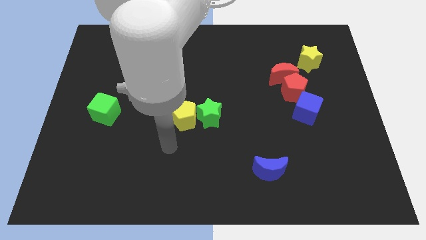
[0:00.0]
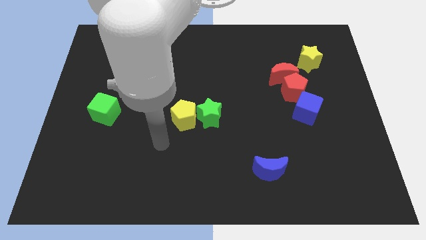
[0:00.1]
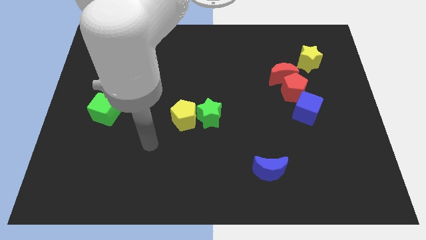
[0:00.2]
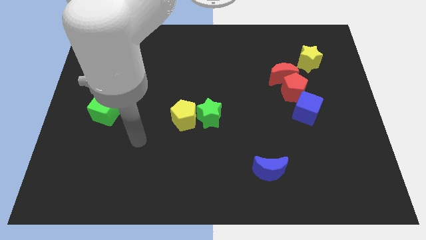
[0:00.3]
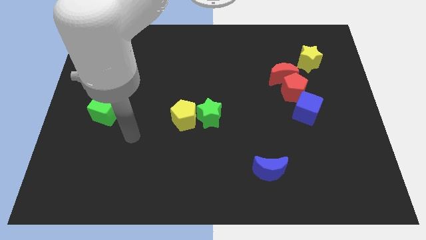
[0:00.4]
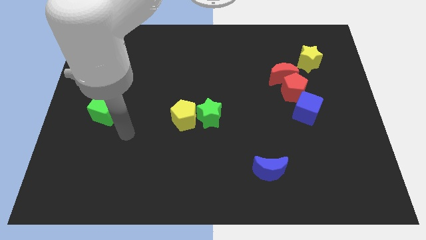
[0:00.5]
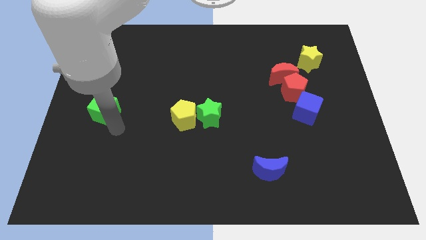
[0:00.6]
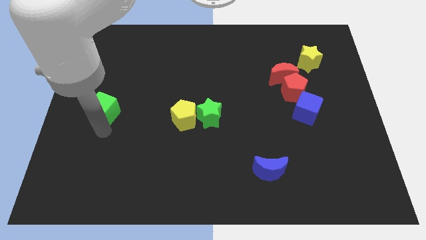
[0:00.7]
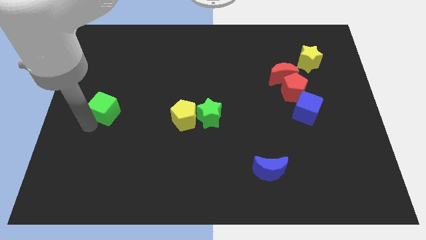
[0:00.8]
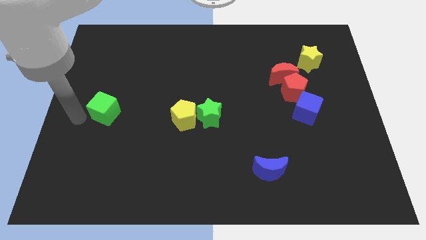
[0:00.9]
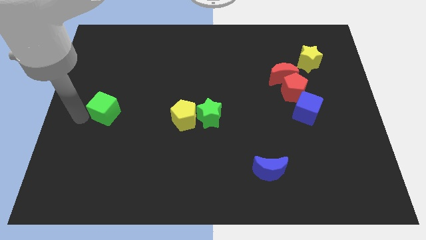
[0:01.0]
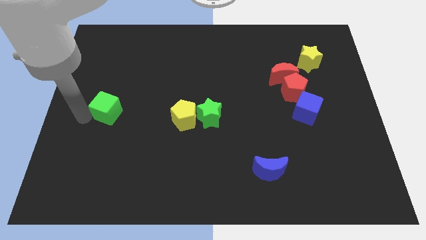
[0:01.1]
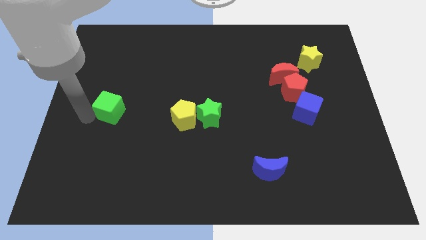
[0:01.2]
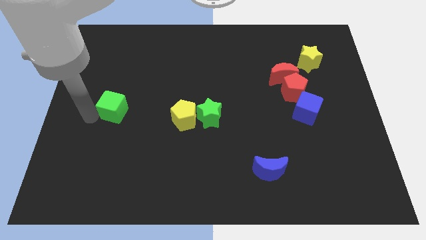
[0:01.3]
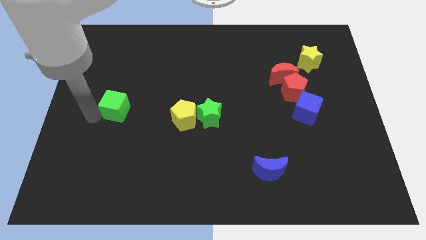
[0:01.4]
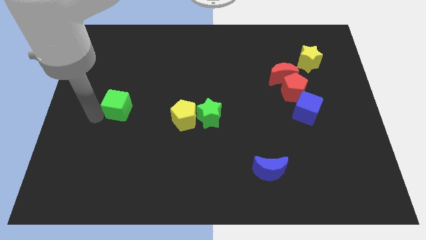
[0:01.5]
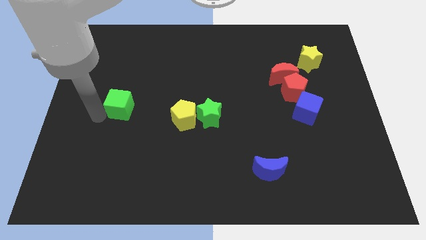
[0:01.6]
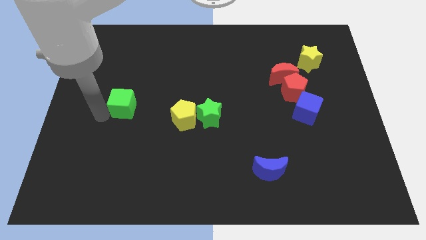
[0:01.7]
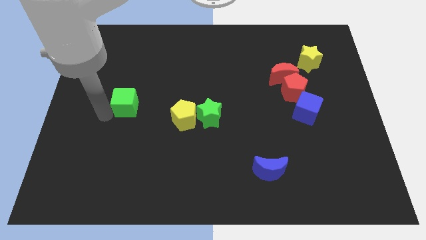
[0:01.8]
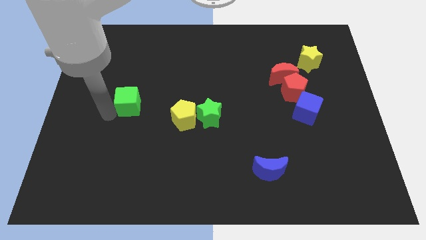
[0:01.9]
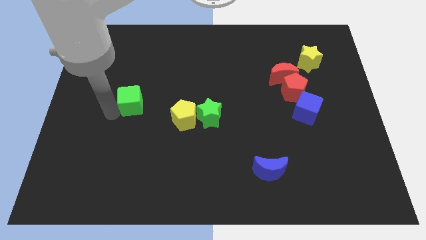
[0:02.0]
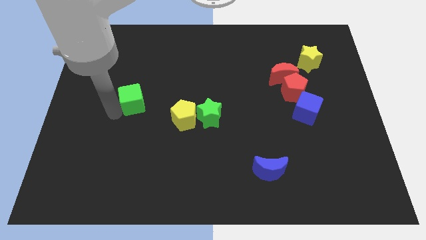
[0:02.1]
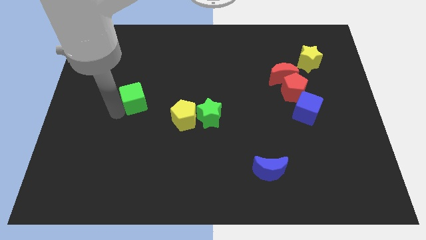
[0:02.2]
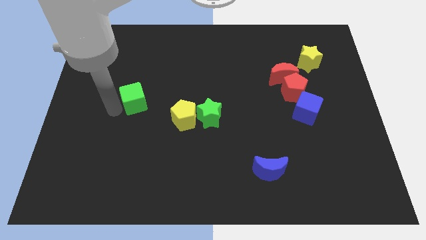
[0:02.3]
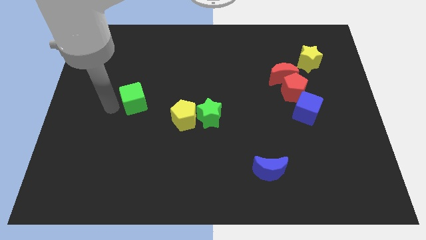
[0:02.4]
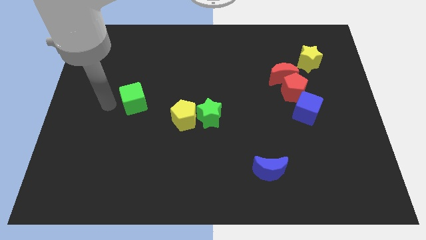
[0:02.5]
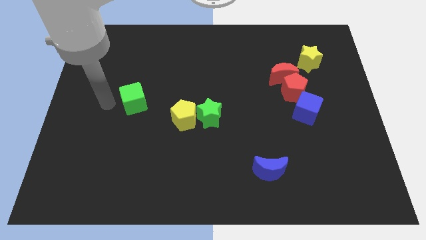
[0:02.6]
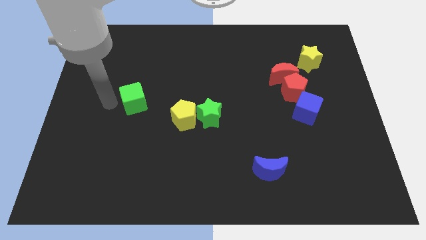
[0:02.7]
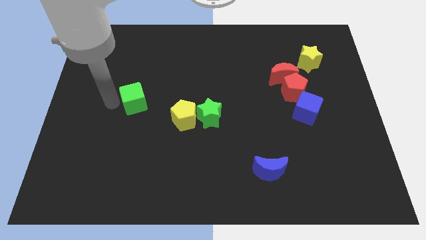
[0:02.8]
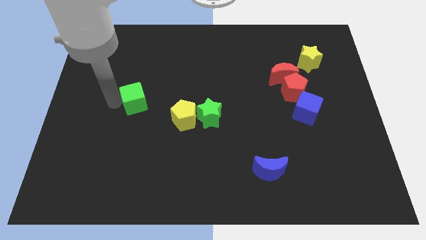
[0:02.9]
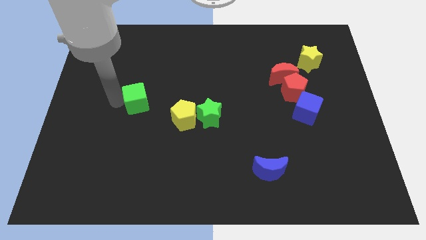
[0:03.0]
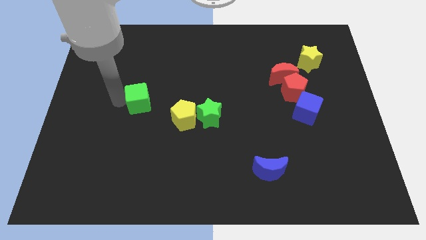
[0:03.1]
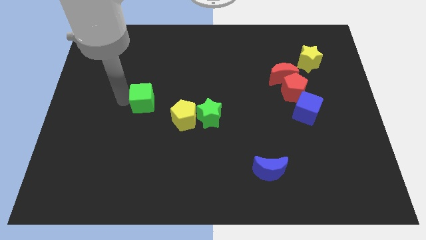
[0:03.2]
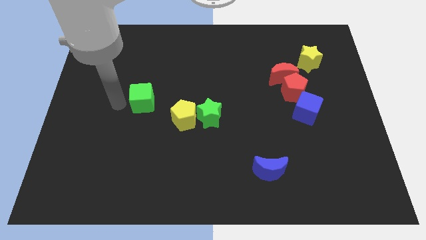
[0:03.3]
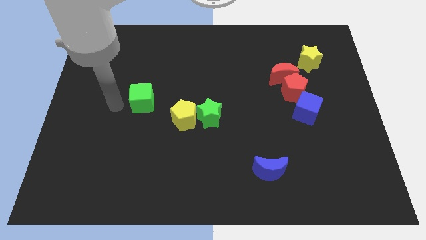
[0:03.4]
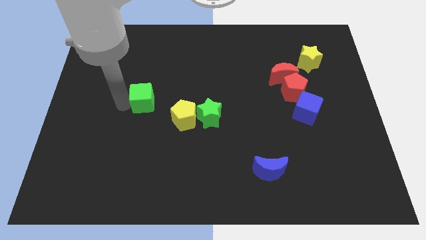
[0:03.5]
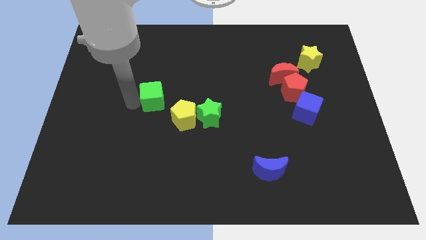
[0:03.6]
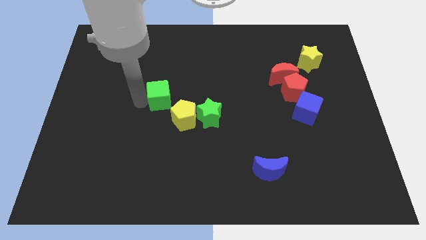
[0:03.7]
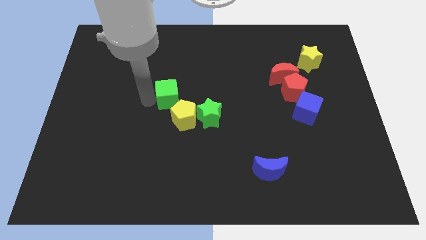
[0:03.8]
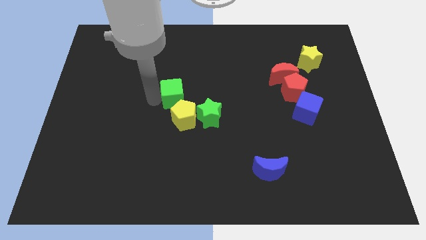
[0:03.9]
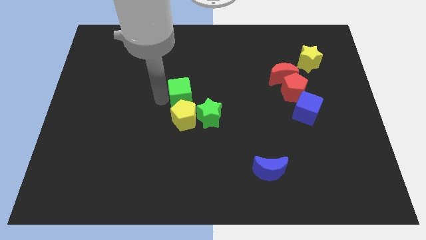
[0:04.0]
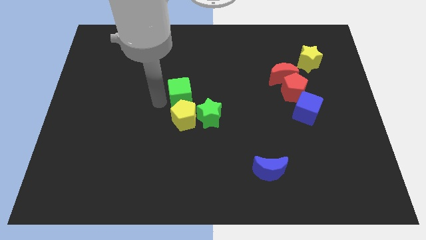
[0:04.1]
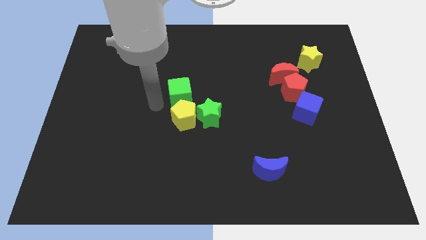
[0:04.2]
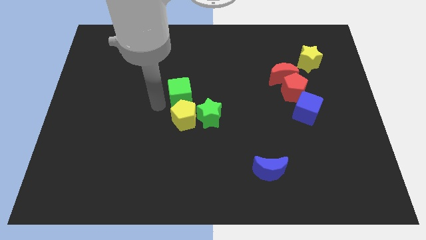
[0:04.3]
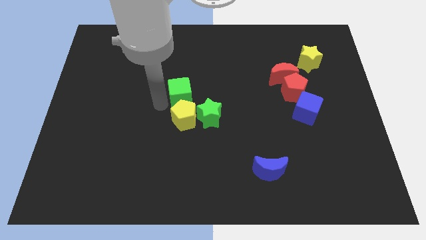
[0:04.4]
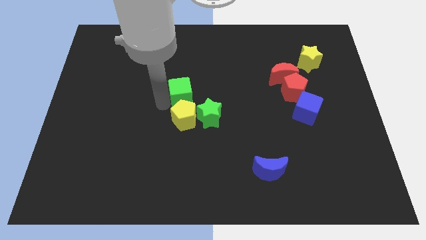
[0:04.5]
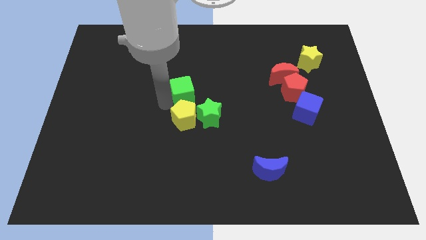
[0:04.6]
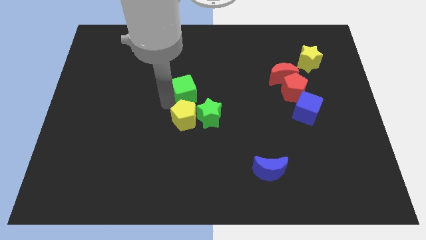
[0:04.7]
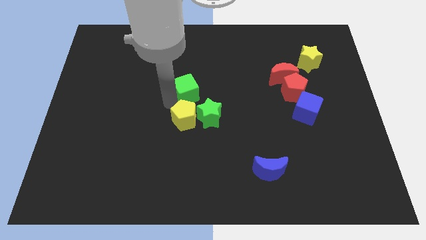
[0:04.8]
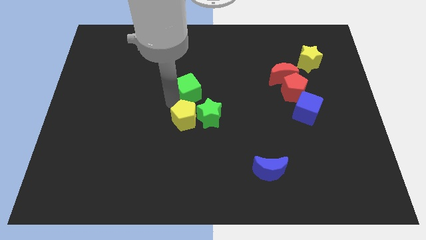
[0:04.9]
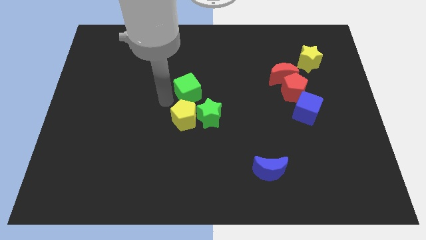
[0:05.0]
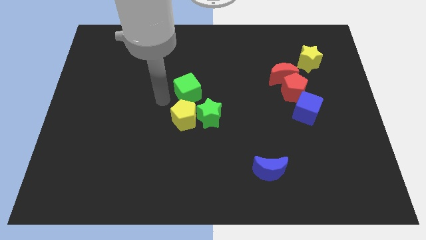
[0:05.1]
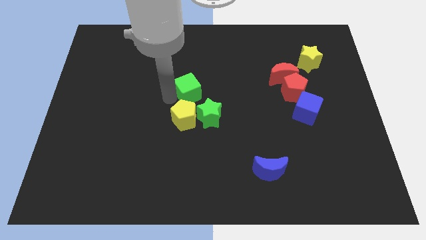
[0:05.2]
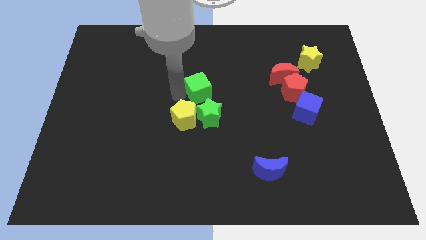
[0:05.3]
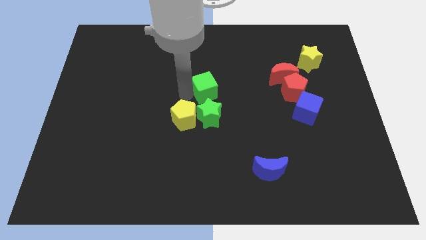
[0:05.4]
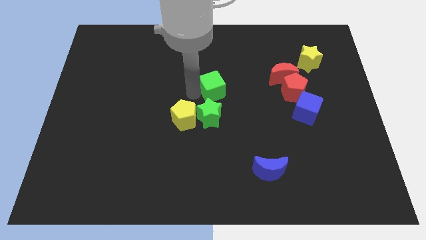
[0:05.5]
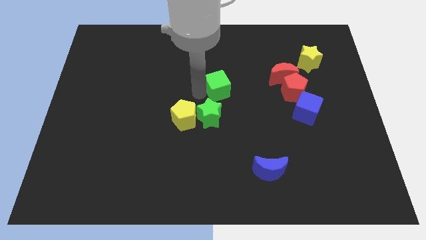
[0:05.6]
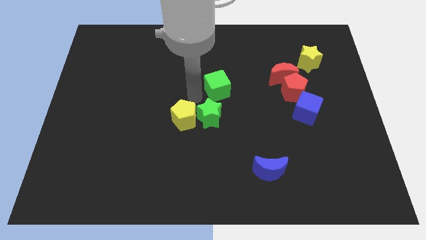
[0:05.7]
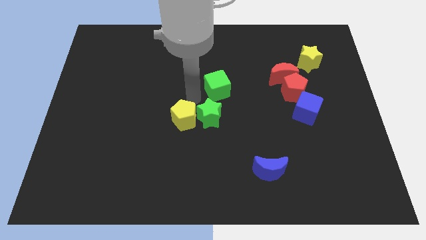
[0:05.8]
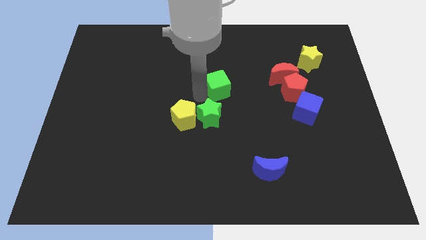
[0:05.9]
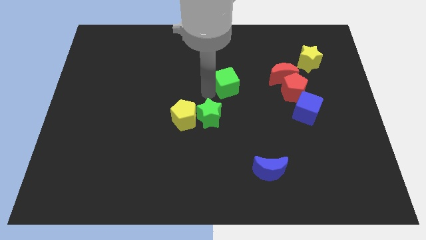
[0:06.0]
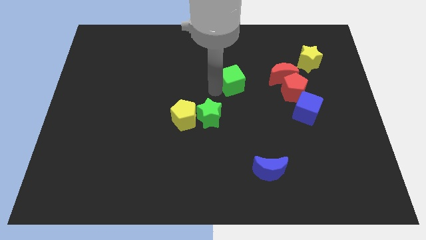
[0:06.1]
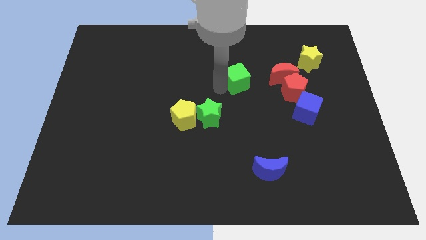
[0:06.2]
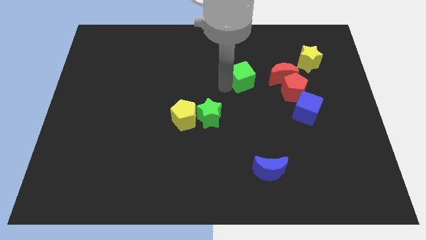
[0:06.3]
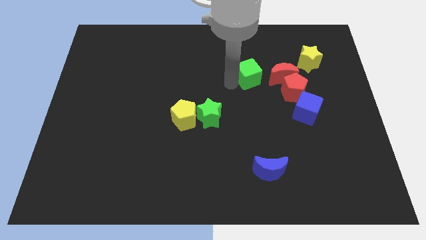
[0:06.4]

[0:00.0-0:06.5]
move the green cube to the top left of the red pentagon
